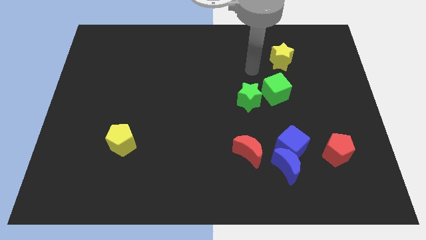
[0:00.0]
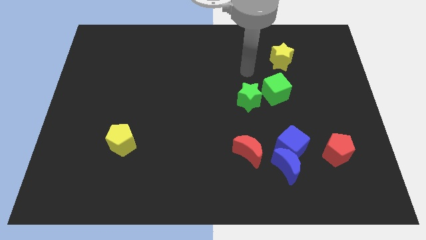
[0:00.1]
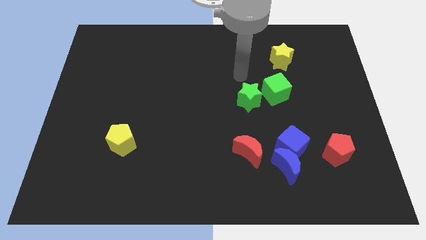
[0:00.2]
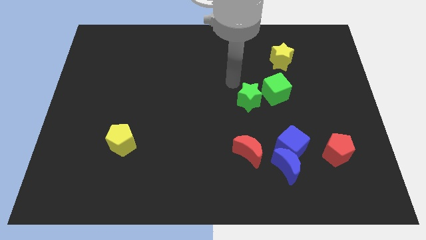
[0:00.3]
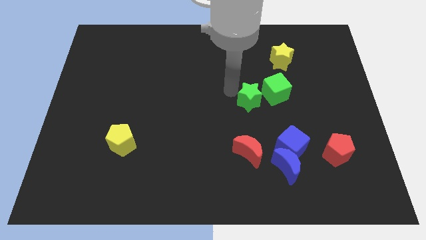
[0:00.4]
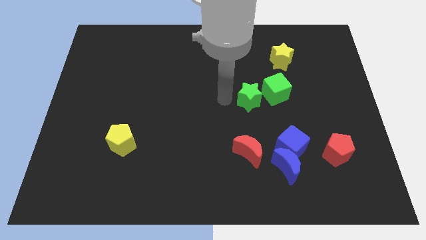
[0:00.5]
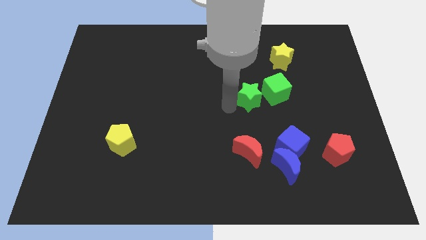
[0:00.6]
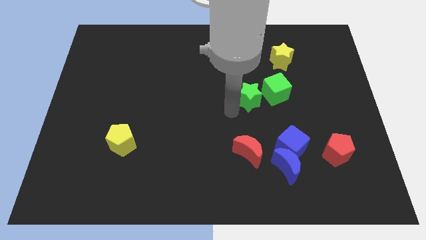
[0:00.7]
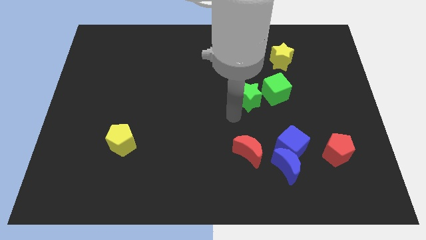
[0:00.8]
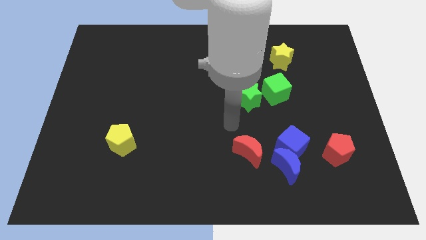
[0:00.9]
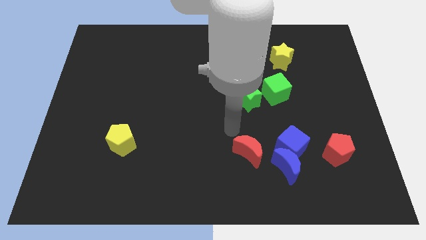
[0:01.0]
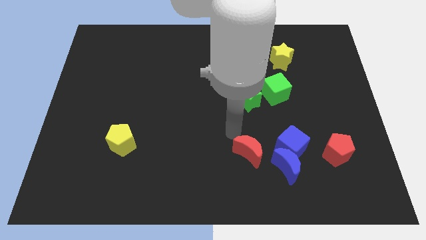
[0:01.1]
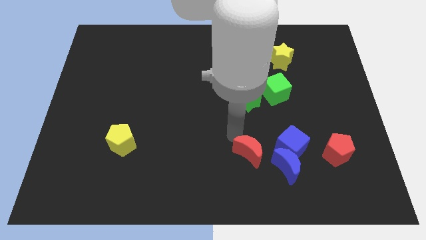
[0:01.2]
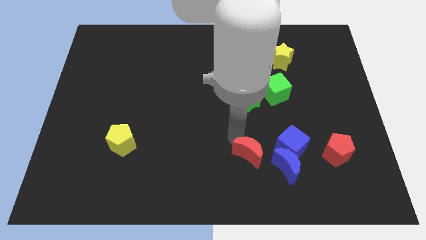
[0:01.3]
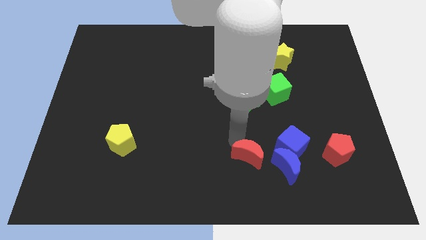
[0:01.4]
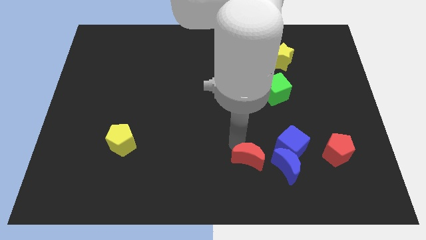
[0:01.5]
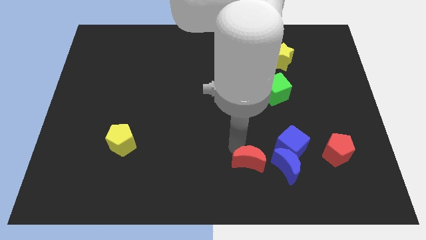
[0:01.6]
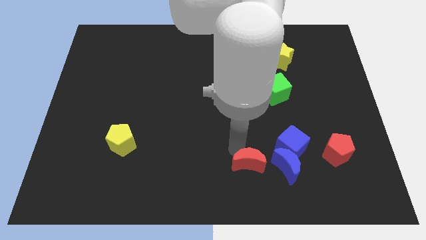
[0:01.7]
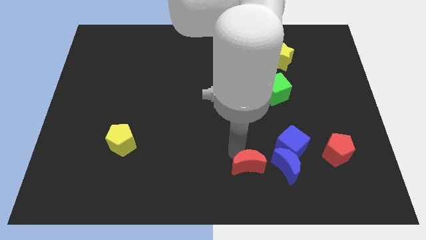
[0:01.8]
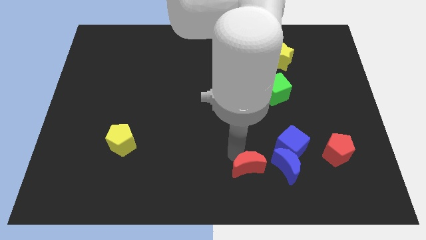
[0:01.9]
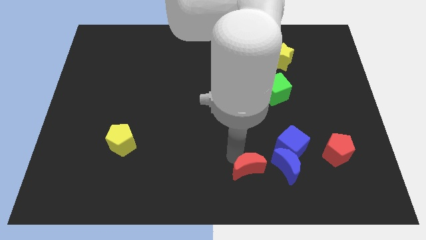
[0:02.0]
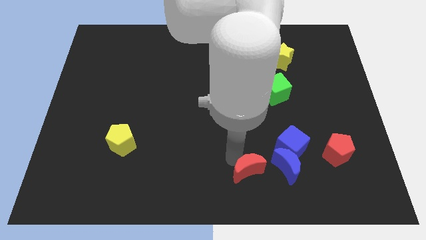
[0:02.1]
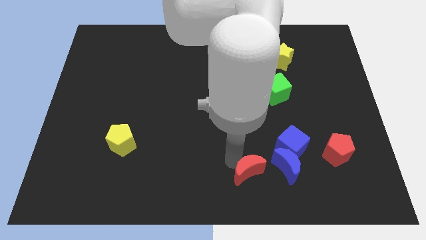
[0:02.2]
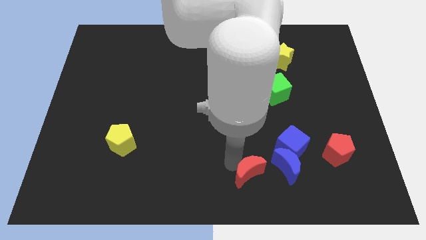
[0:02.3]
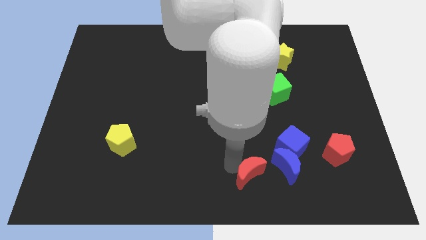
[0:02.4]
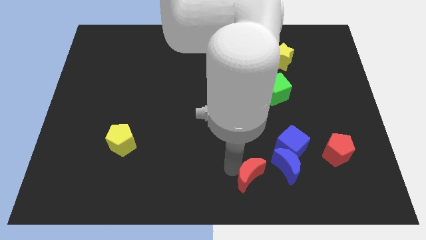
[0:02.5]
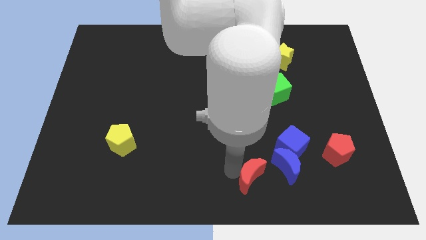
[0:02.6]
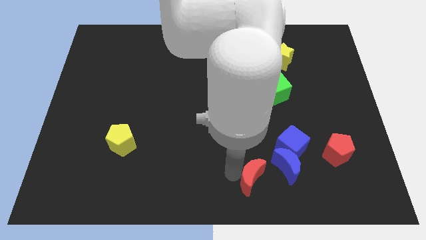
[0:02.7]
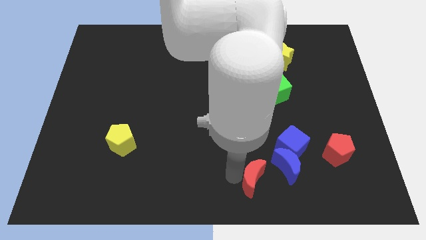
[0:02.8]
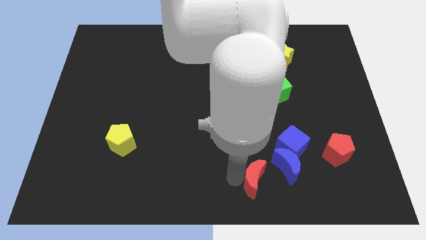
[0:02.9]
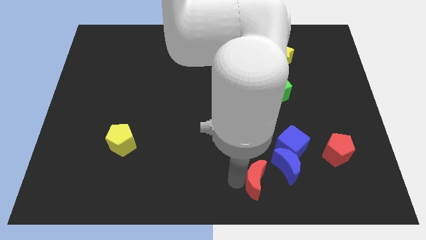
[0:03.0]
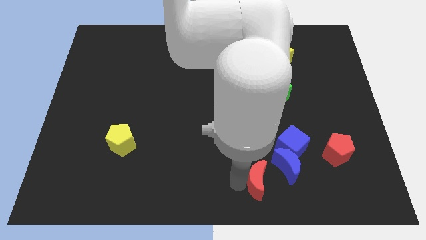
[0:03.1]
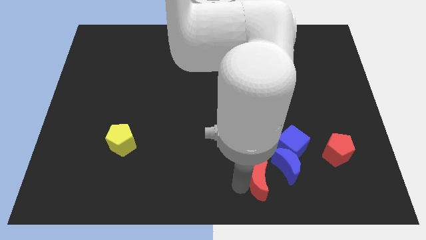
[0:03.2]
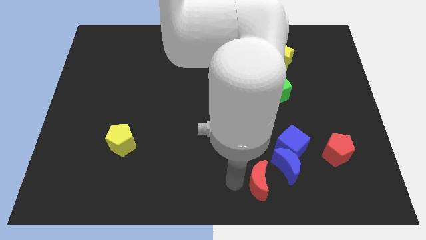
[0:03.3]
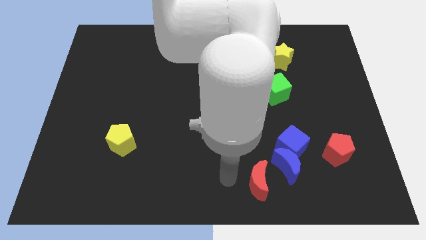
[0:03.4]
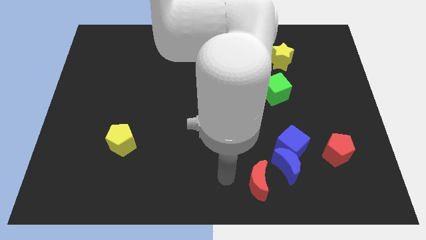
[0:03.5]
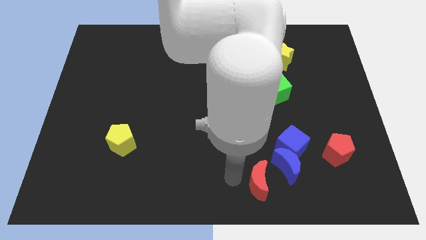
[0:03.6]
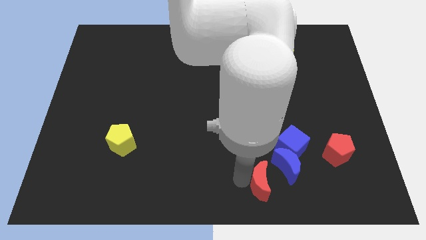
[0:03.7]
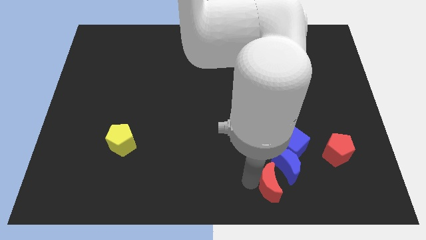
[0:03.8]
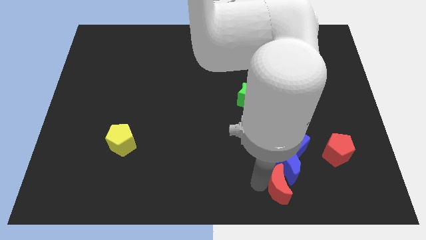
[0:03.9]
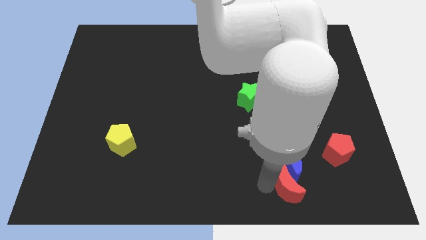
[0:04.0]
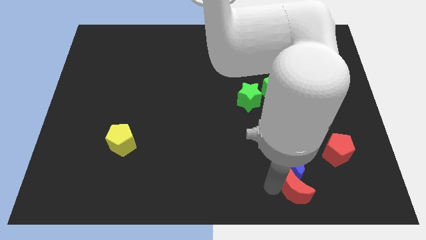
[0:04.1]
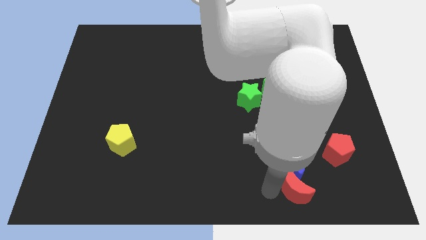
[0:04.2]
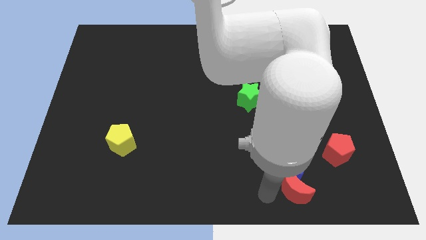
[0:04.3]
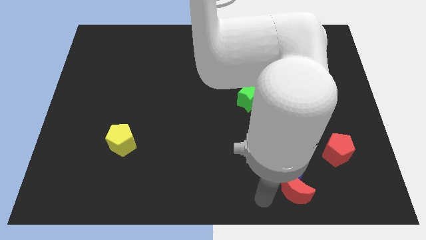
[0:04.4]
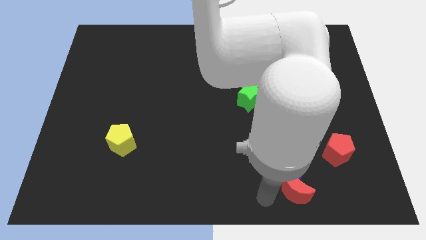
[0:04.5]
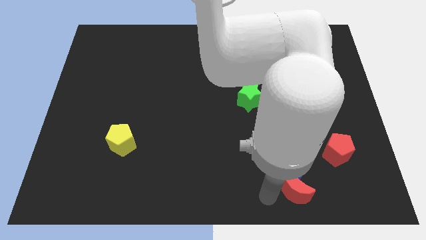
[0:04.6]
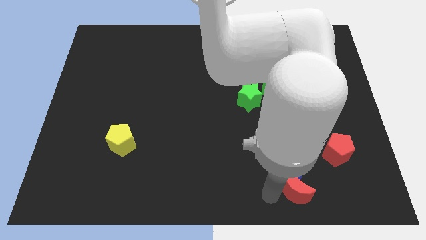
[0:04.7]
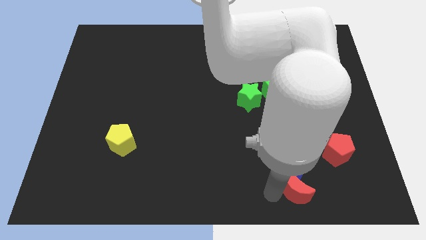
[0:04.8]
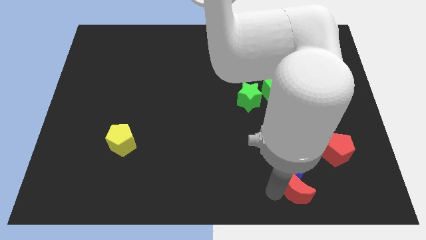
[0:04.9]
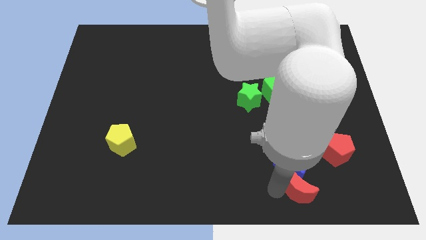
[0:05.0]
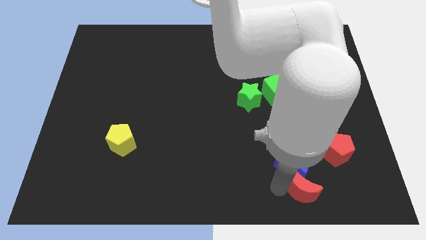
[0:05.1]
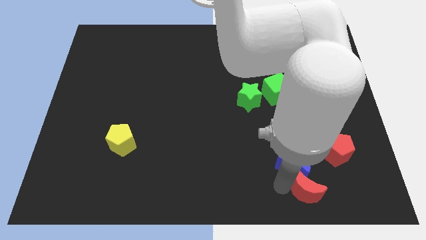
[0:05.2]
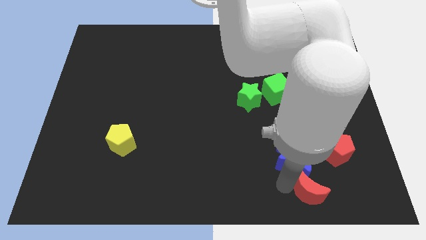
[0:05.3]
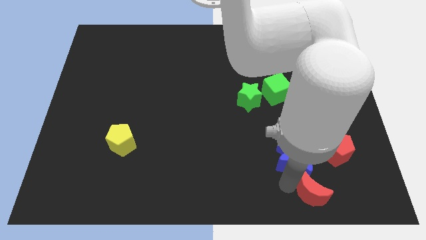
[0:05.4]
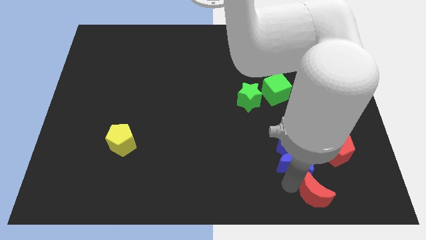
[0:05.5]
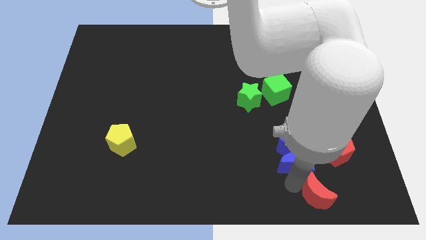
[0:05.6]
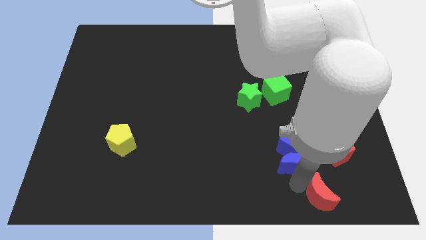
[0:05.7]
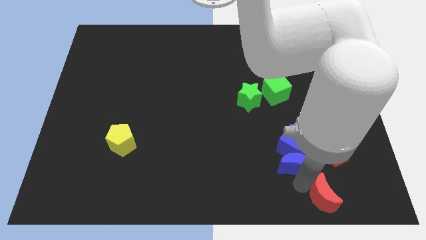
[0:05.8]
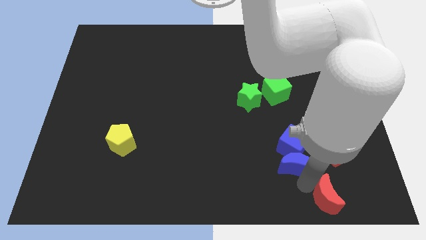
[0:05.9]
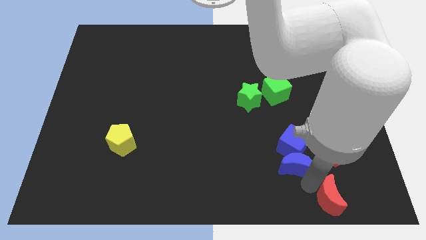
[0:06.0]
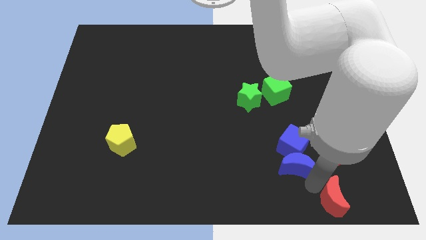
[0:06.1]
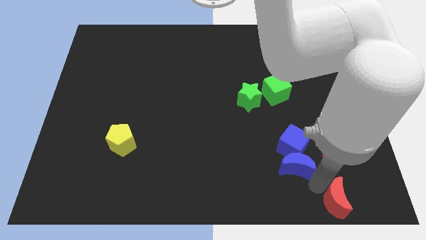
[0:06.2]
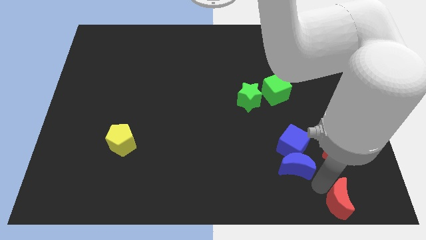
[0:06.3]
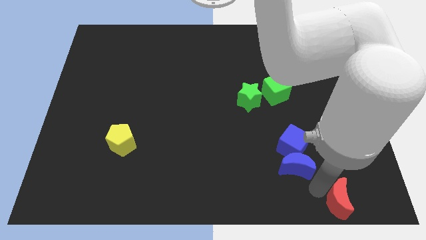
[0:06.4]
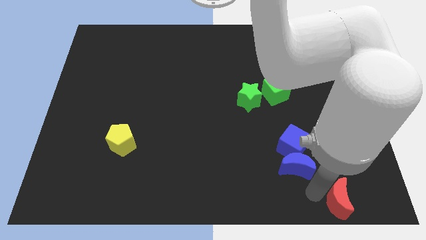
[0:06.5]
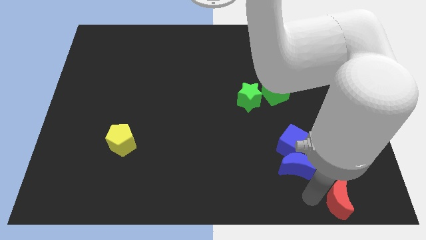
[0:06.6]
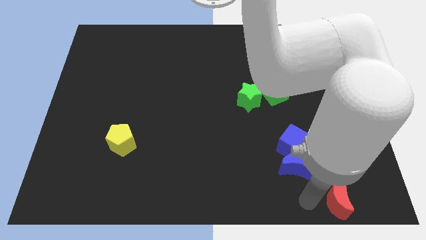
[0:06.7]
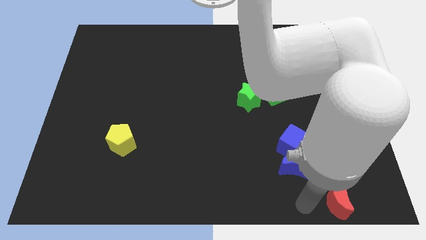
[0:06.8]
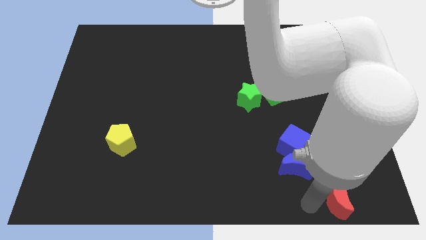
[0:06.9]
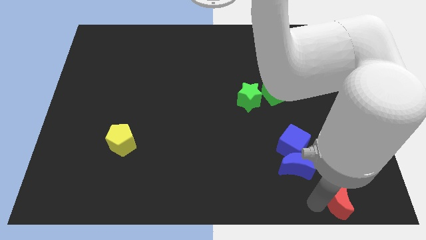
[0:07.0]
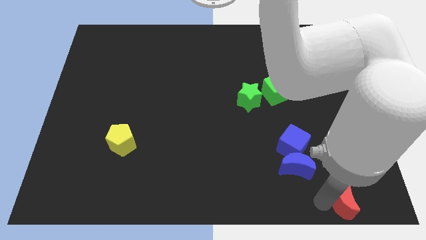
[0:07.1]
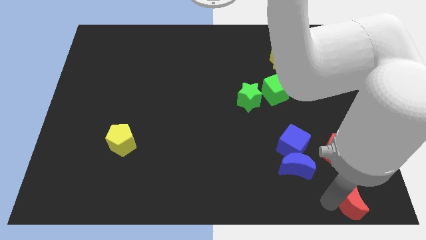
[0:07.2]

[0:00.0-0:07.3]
move the red moon to the bottom right corner
